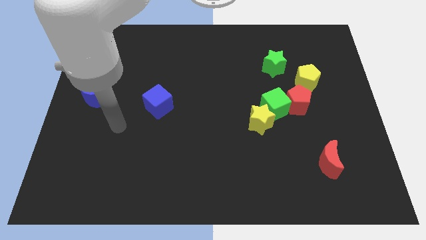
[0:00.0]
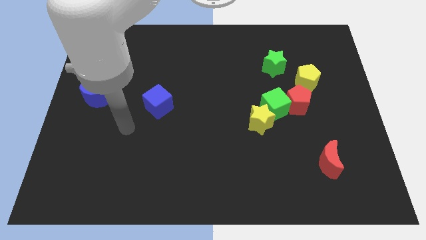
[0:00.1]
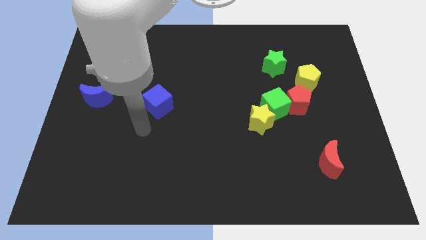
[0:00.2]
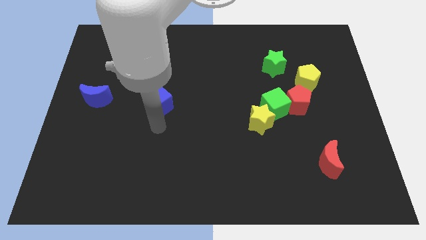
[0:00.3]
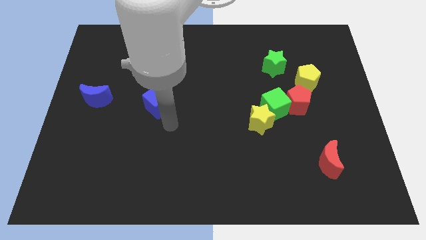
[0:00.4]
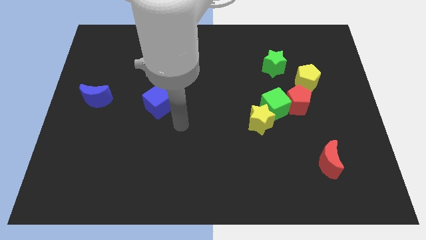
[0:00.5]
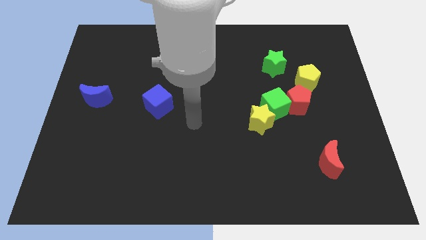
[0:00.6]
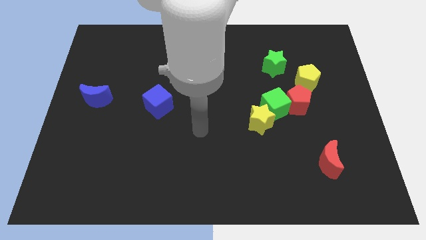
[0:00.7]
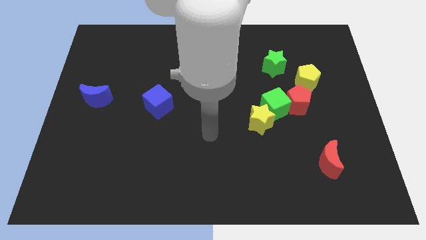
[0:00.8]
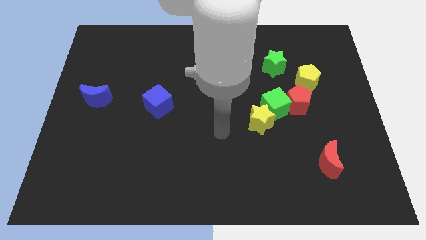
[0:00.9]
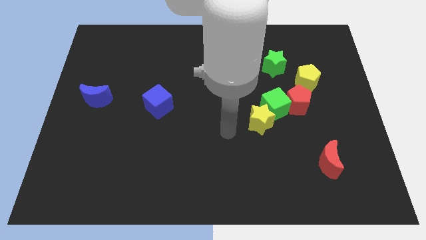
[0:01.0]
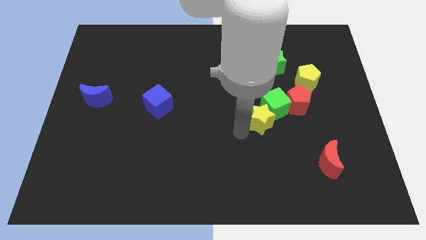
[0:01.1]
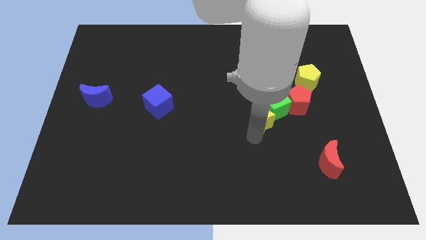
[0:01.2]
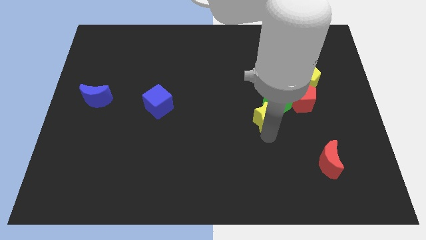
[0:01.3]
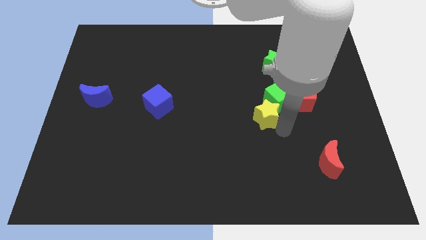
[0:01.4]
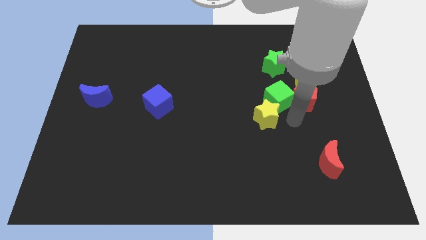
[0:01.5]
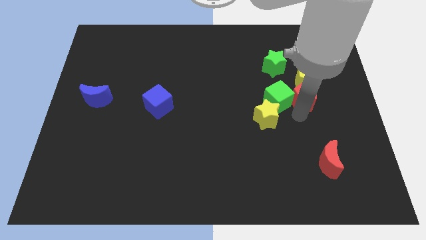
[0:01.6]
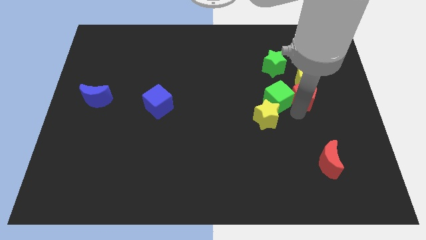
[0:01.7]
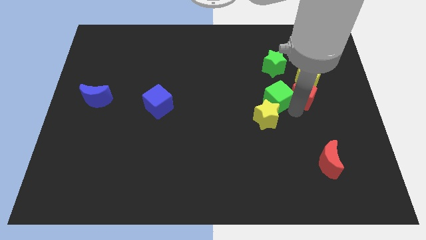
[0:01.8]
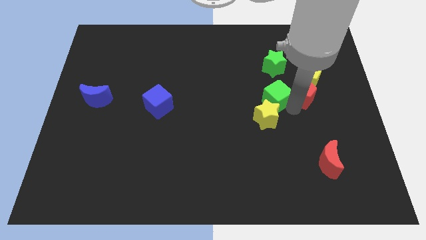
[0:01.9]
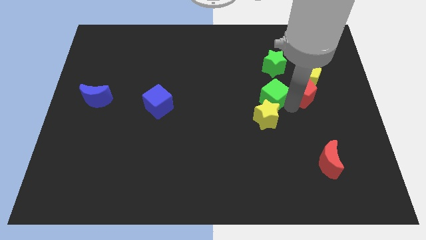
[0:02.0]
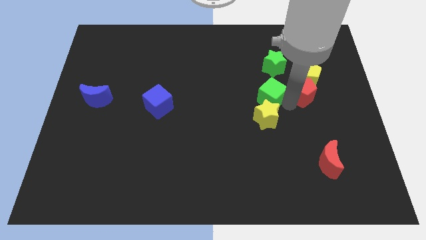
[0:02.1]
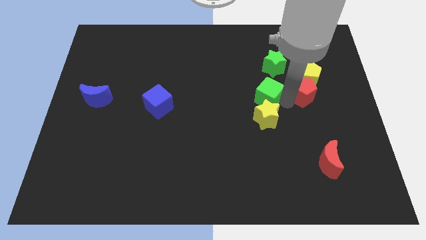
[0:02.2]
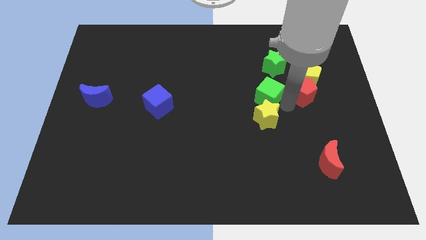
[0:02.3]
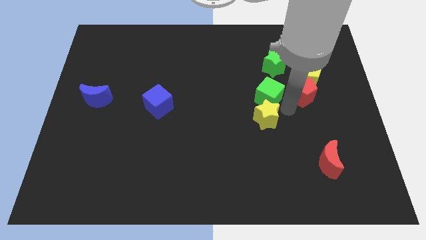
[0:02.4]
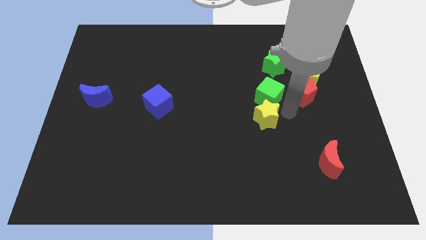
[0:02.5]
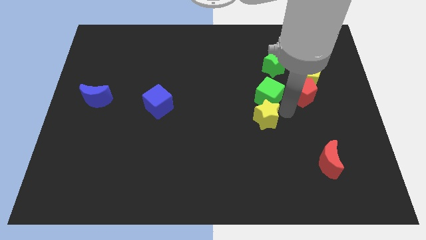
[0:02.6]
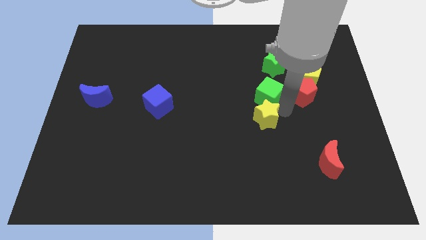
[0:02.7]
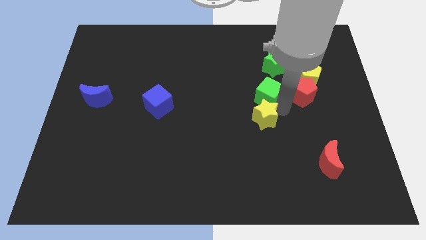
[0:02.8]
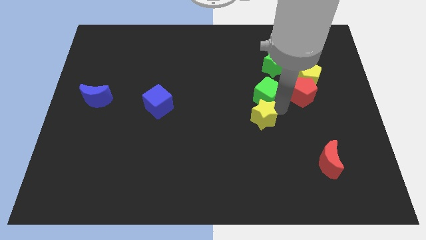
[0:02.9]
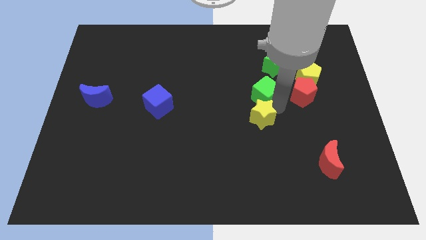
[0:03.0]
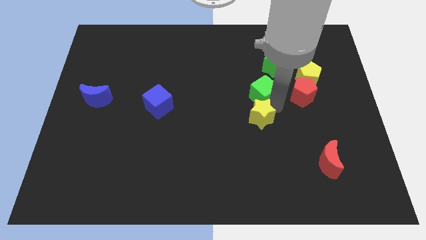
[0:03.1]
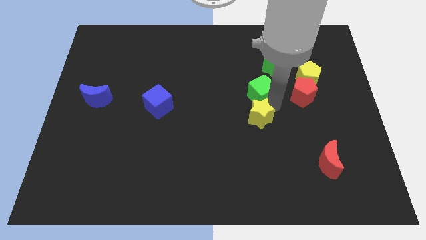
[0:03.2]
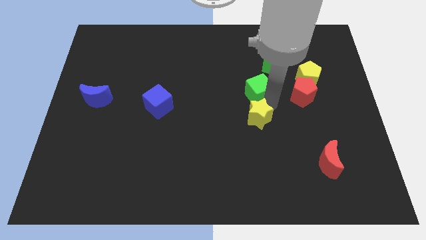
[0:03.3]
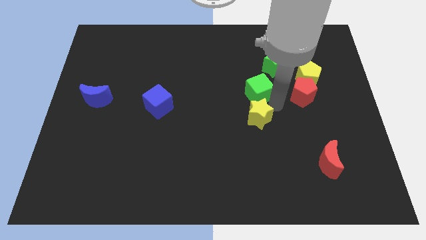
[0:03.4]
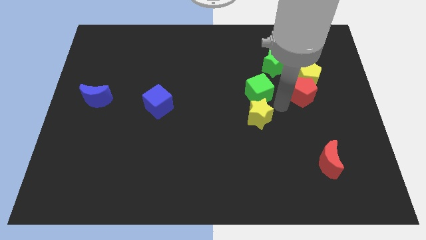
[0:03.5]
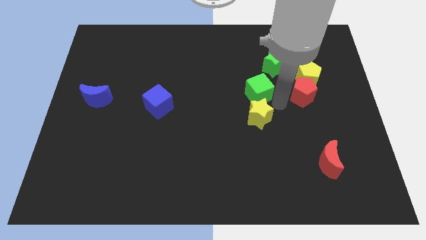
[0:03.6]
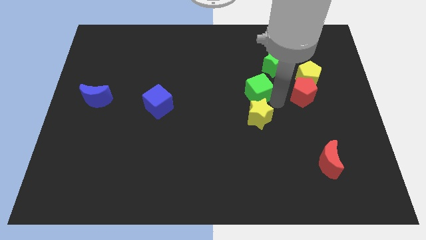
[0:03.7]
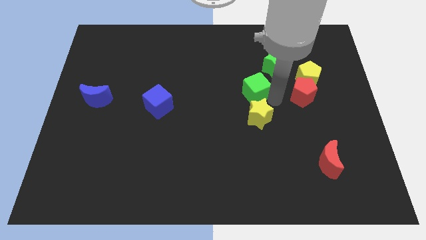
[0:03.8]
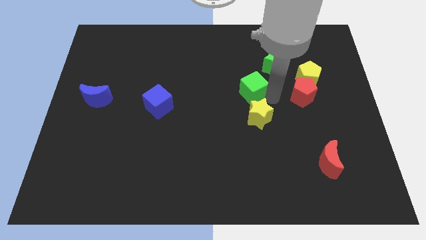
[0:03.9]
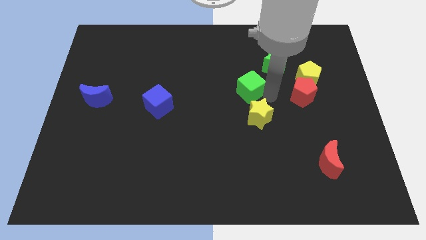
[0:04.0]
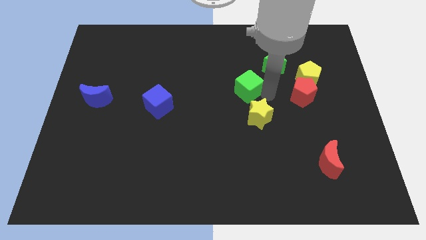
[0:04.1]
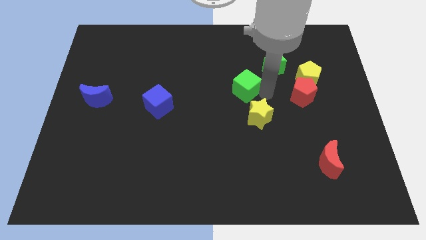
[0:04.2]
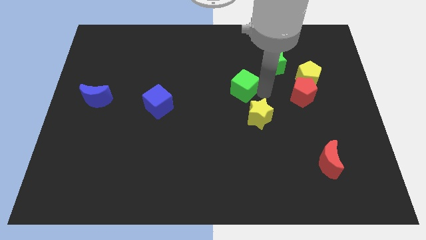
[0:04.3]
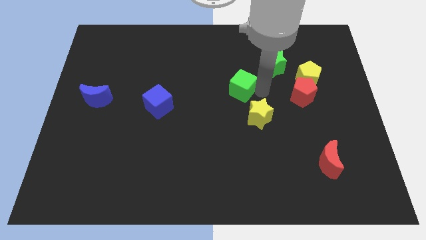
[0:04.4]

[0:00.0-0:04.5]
move the green cube away from the yellow star and red pentagon

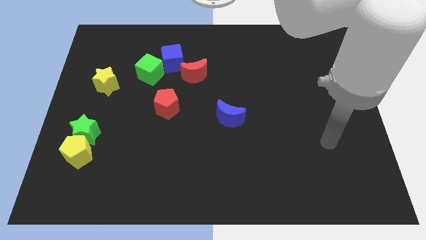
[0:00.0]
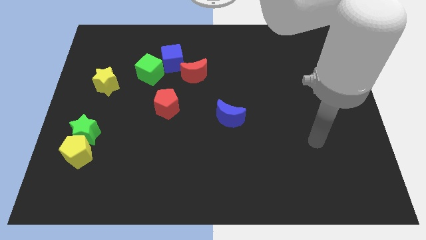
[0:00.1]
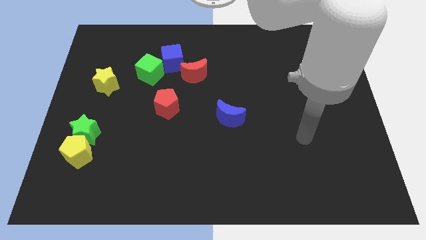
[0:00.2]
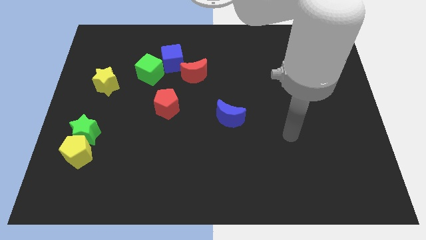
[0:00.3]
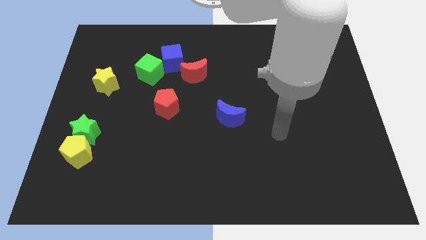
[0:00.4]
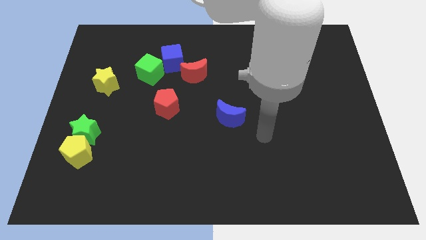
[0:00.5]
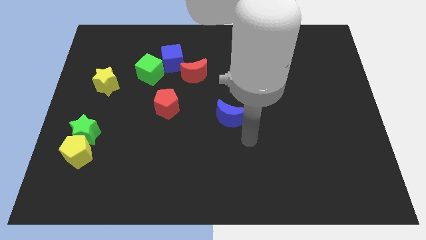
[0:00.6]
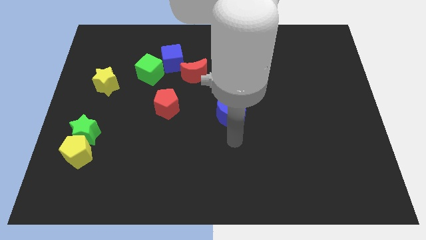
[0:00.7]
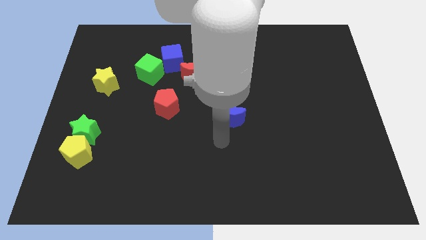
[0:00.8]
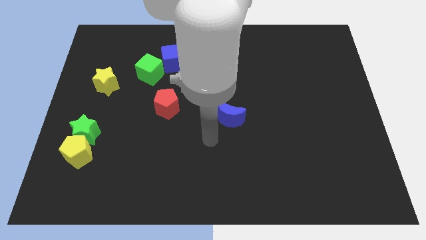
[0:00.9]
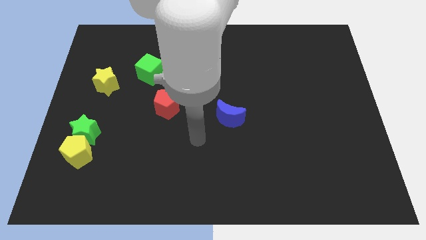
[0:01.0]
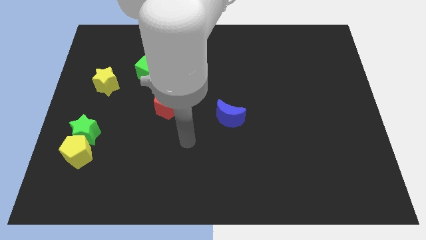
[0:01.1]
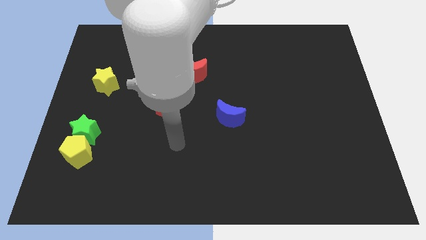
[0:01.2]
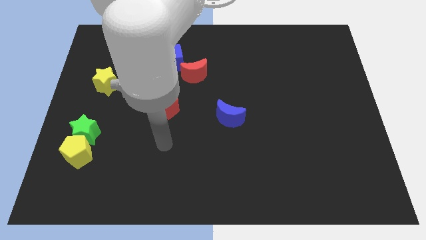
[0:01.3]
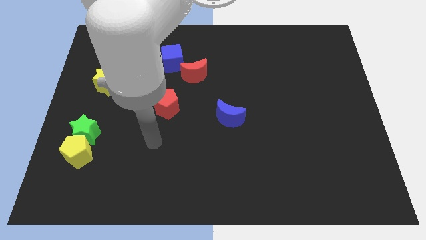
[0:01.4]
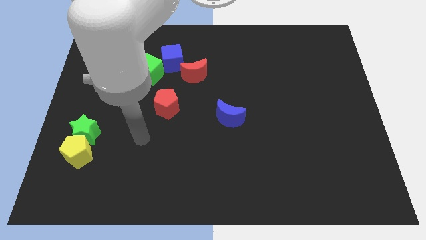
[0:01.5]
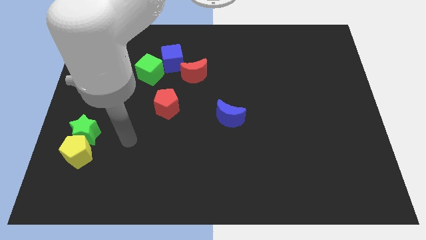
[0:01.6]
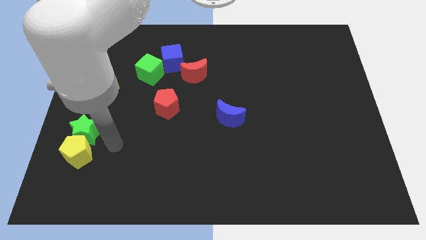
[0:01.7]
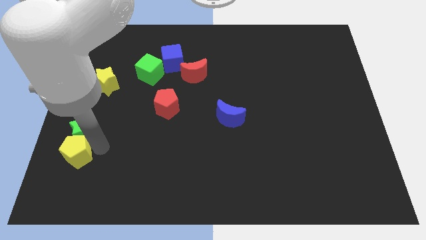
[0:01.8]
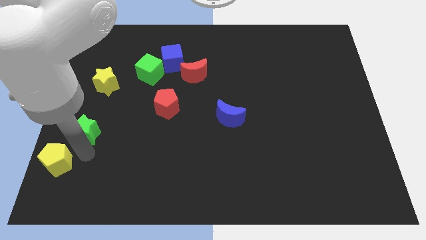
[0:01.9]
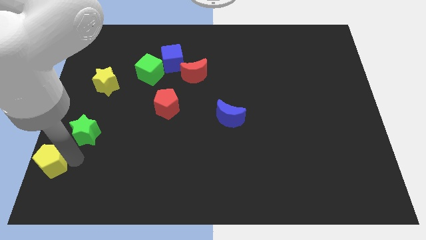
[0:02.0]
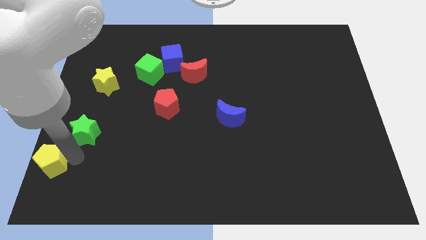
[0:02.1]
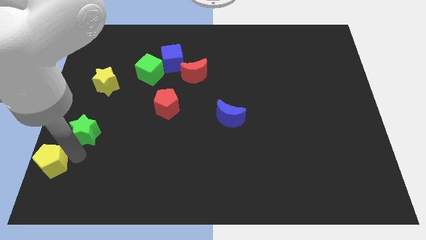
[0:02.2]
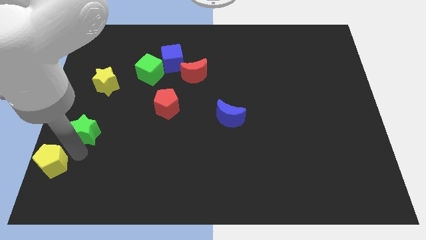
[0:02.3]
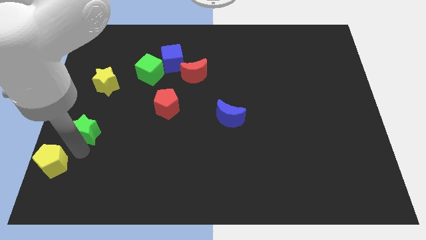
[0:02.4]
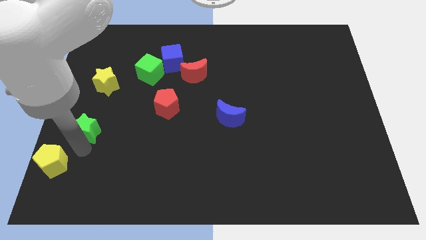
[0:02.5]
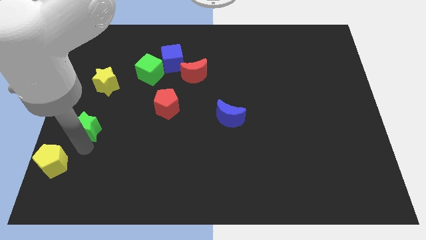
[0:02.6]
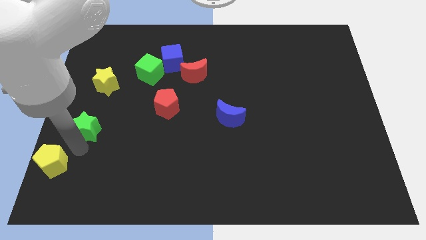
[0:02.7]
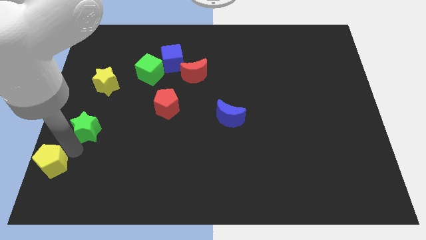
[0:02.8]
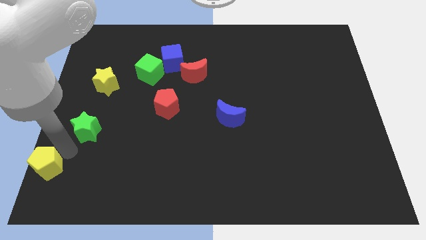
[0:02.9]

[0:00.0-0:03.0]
move the green star away from the yellow pentagon

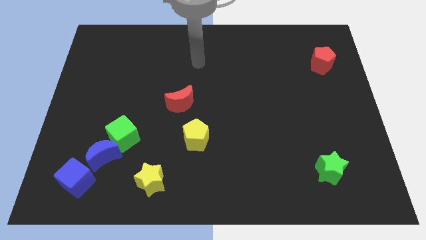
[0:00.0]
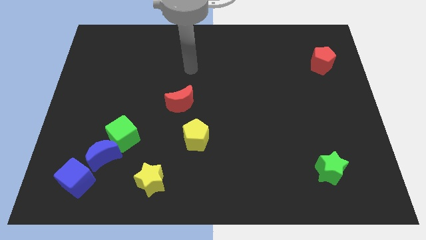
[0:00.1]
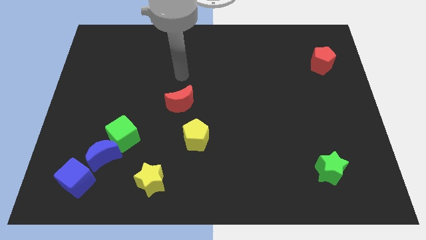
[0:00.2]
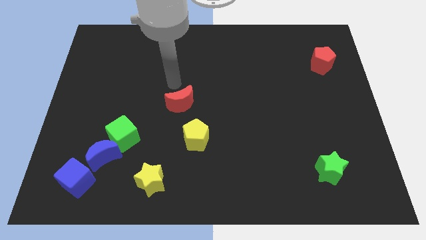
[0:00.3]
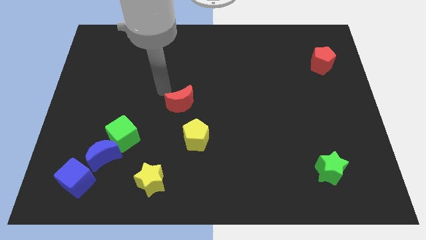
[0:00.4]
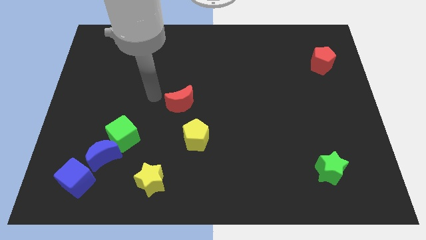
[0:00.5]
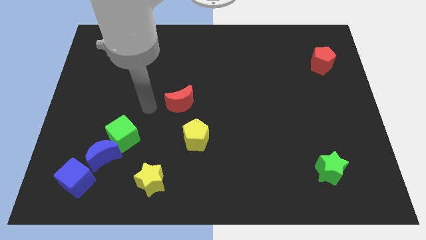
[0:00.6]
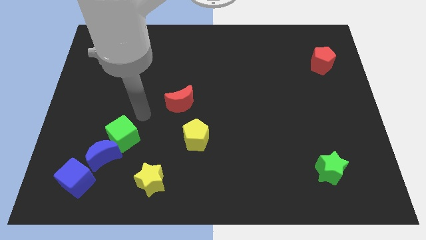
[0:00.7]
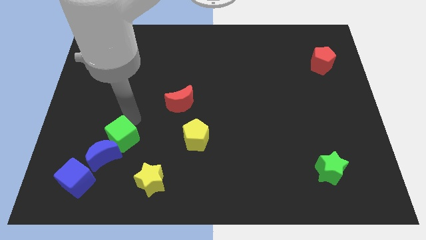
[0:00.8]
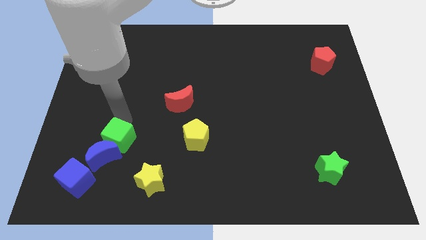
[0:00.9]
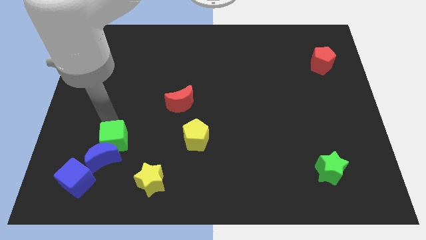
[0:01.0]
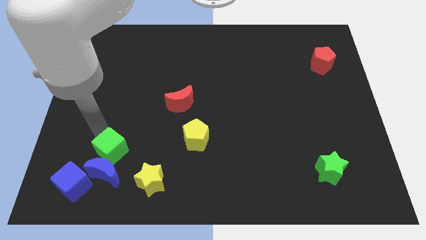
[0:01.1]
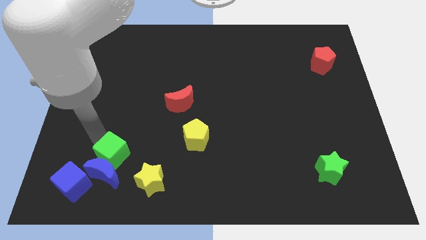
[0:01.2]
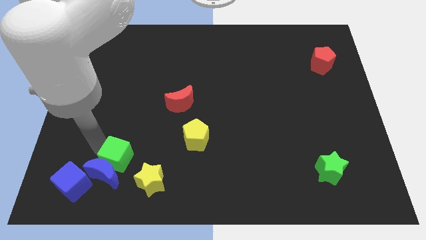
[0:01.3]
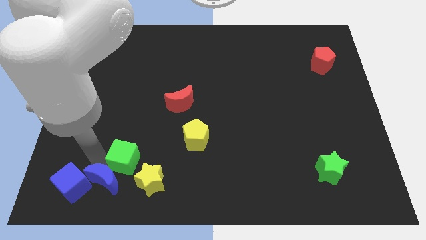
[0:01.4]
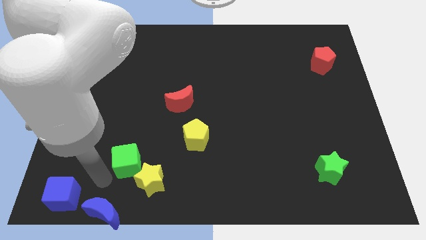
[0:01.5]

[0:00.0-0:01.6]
move the green cube away from the blue moon

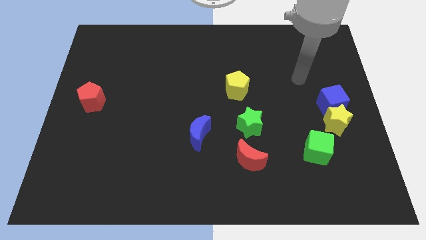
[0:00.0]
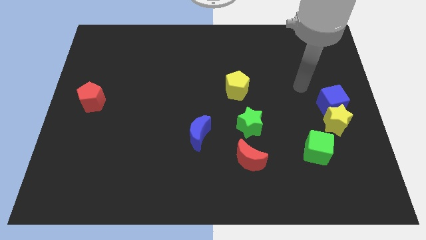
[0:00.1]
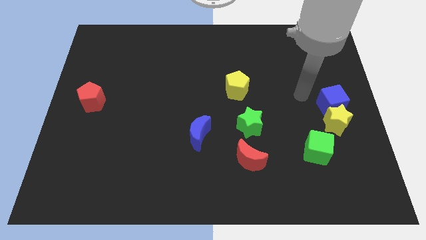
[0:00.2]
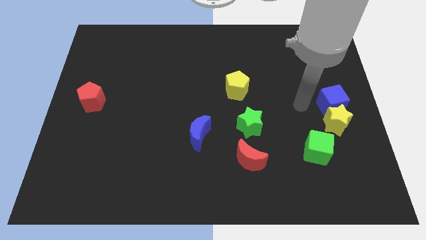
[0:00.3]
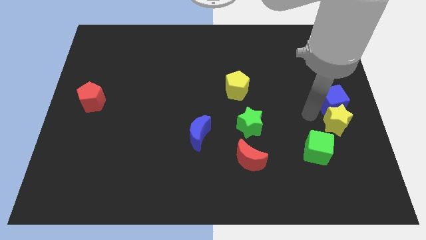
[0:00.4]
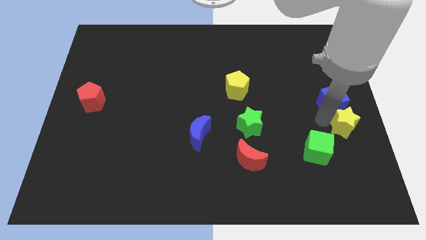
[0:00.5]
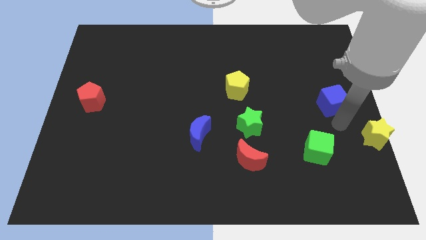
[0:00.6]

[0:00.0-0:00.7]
move the blue cube away from the yellow star
